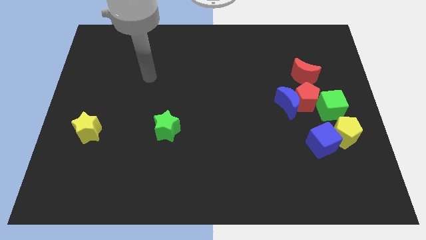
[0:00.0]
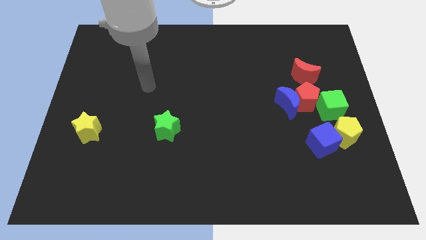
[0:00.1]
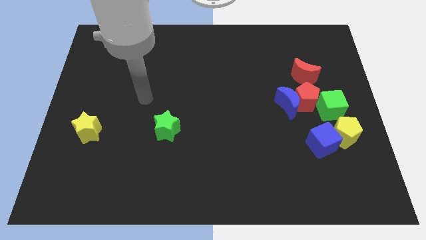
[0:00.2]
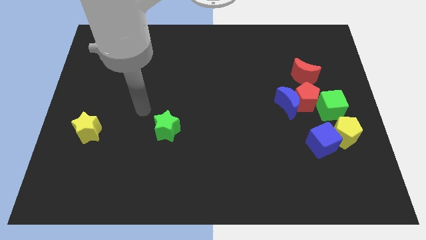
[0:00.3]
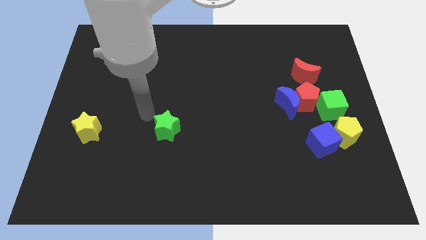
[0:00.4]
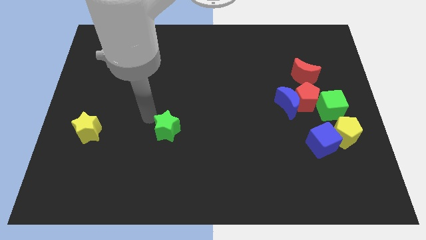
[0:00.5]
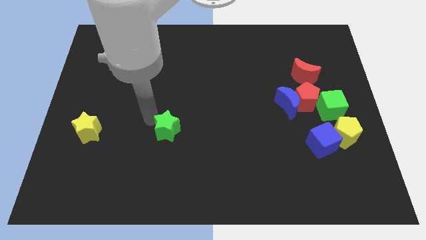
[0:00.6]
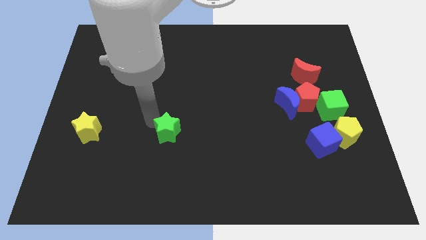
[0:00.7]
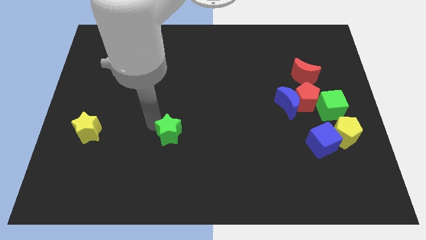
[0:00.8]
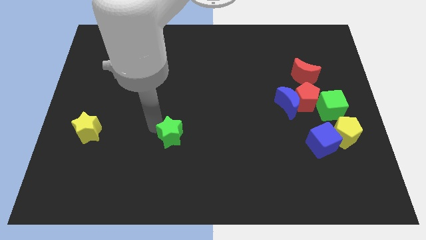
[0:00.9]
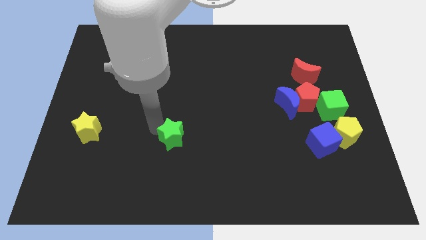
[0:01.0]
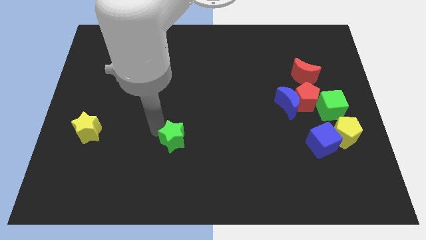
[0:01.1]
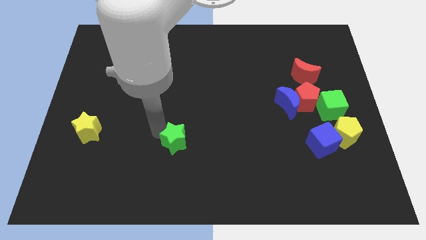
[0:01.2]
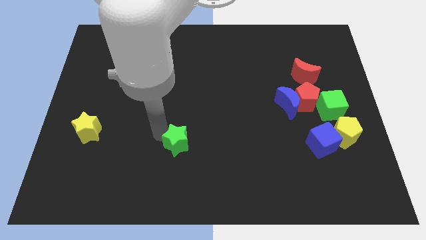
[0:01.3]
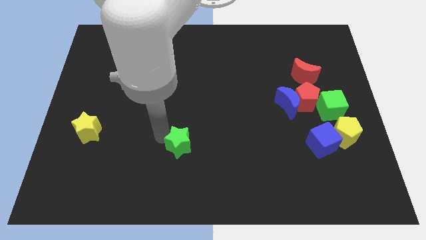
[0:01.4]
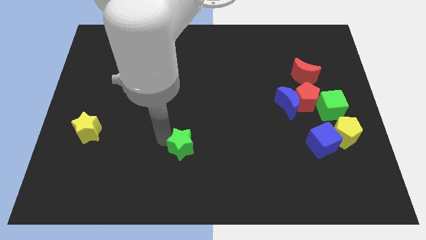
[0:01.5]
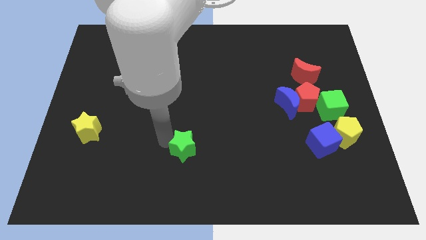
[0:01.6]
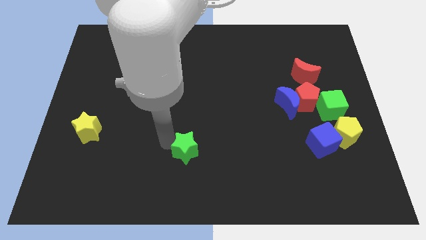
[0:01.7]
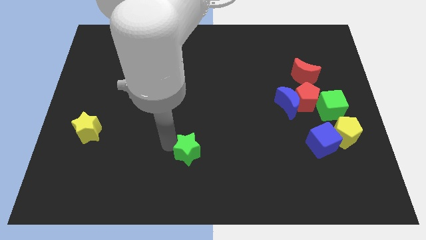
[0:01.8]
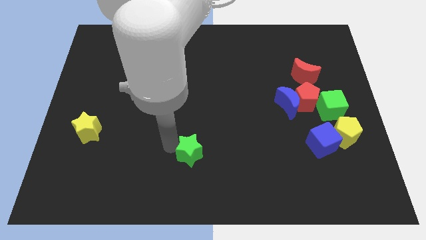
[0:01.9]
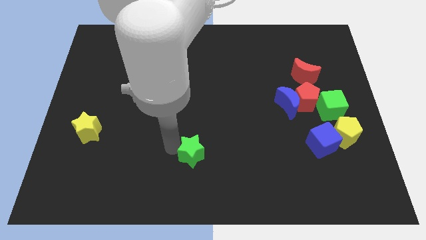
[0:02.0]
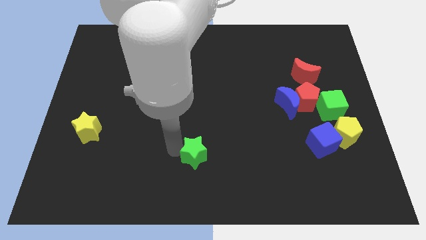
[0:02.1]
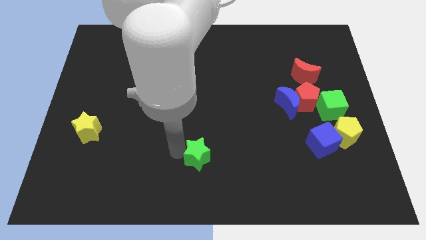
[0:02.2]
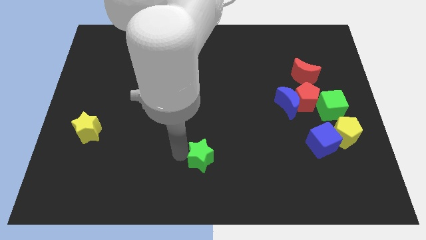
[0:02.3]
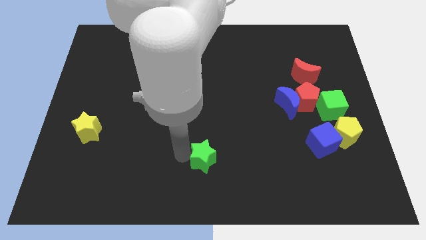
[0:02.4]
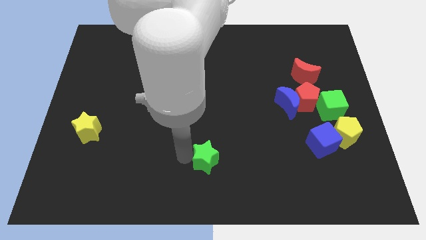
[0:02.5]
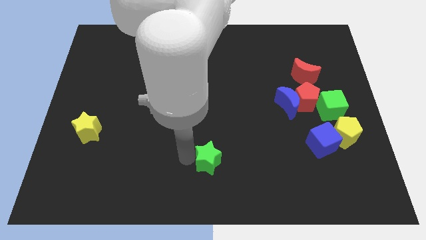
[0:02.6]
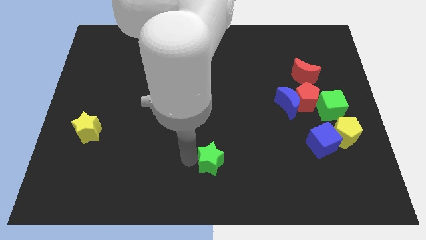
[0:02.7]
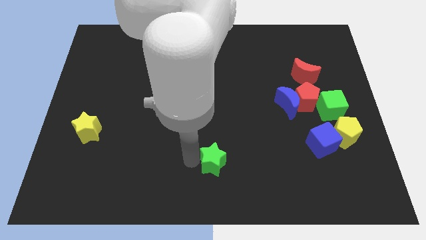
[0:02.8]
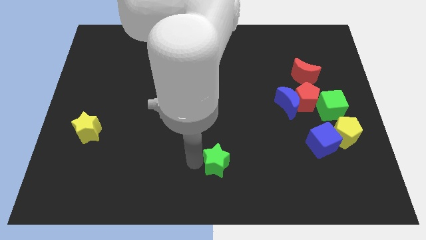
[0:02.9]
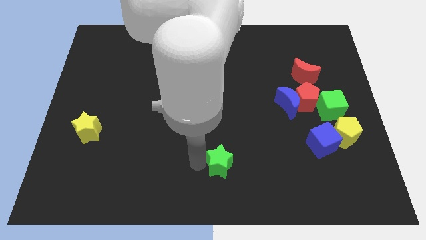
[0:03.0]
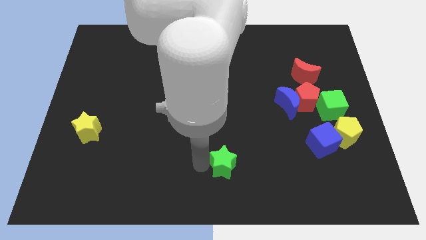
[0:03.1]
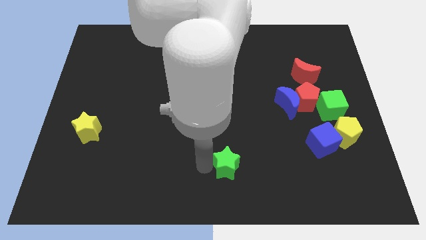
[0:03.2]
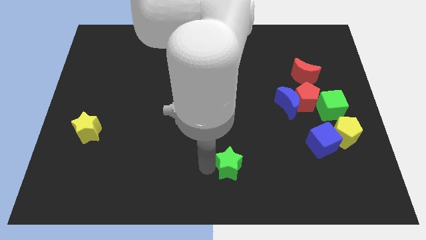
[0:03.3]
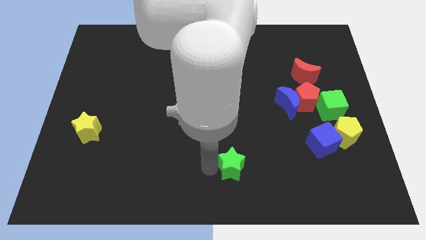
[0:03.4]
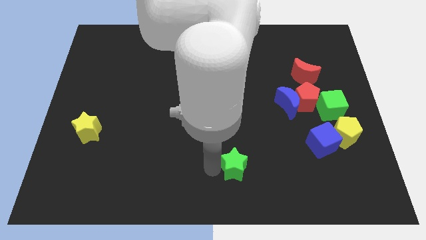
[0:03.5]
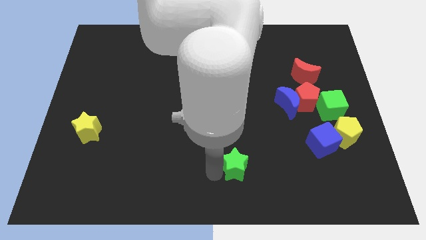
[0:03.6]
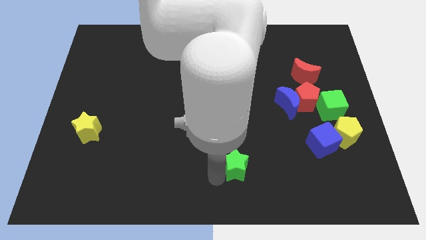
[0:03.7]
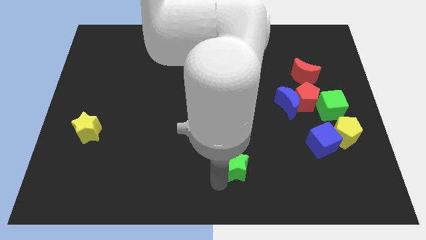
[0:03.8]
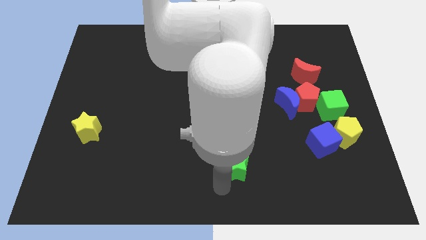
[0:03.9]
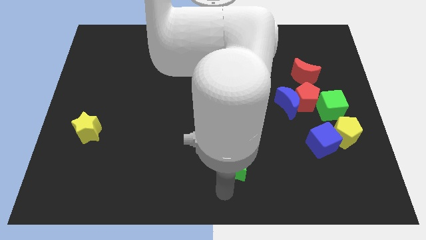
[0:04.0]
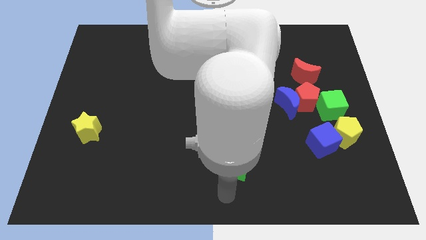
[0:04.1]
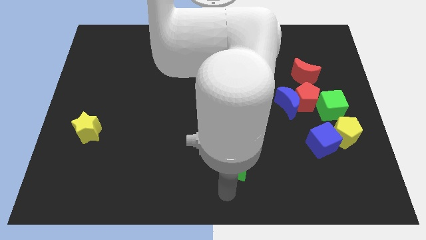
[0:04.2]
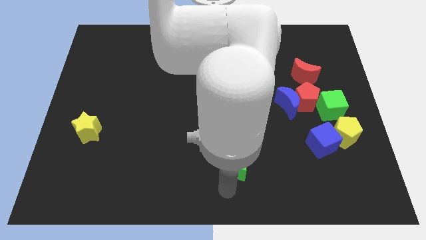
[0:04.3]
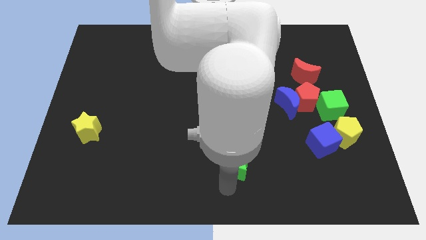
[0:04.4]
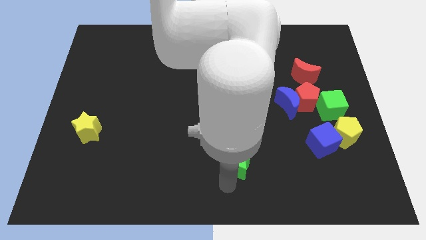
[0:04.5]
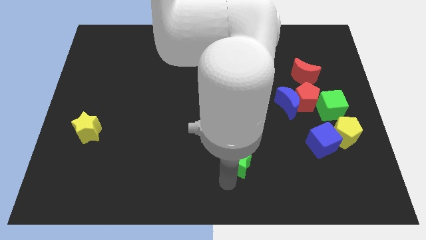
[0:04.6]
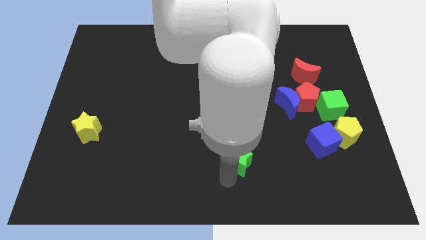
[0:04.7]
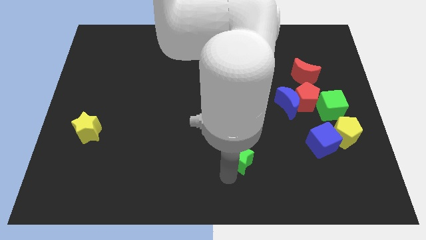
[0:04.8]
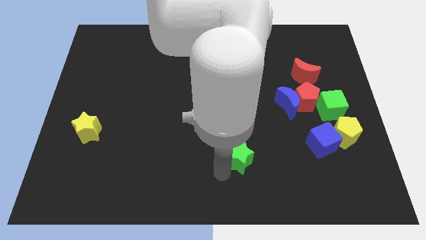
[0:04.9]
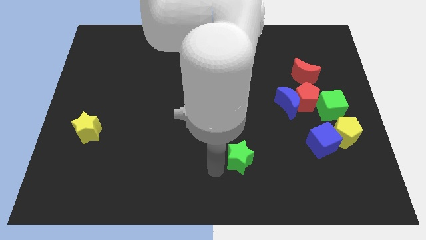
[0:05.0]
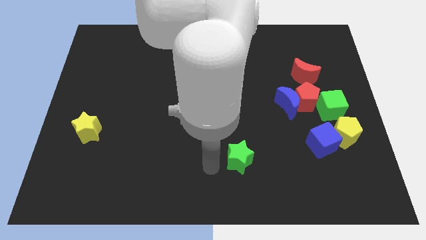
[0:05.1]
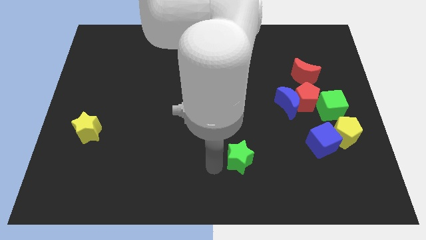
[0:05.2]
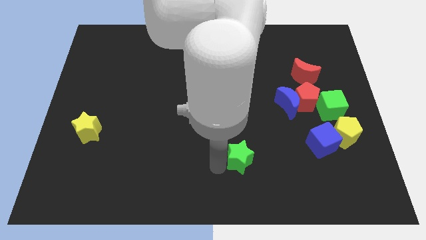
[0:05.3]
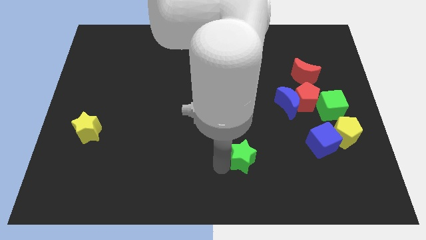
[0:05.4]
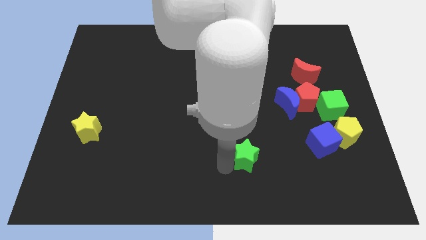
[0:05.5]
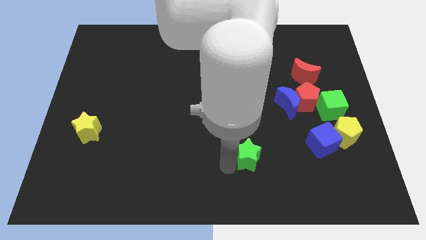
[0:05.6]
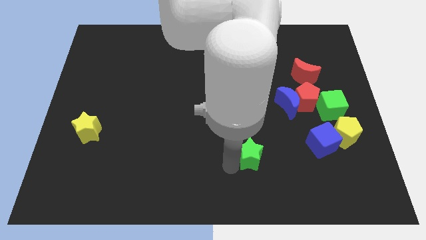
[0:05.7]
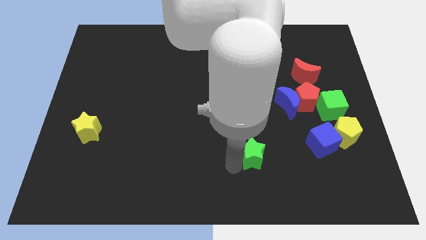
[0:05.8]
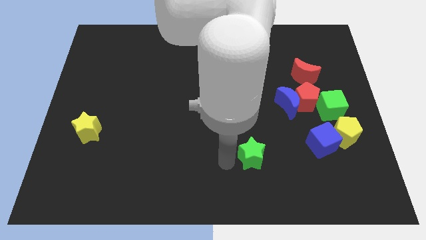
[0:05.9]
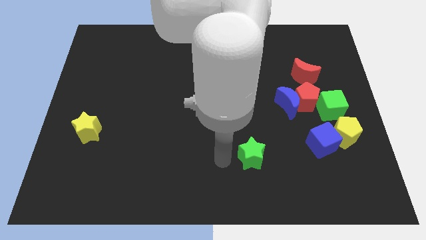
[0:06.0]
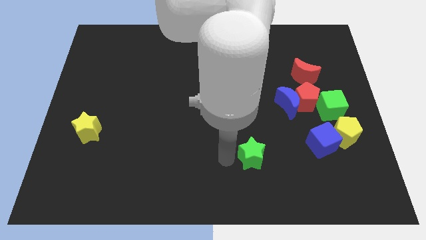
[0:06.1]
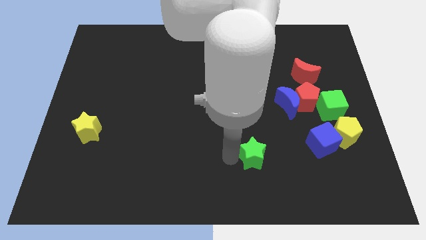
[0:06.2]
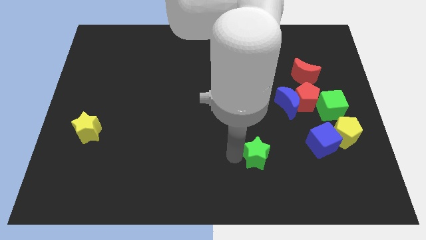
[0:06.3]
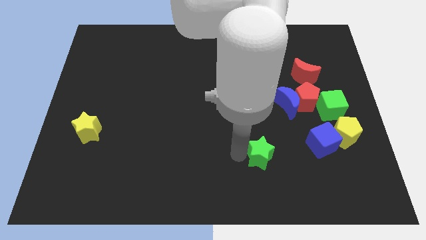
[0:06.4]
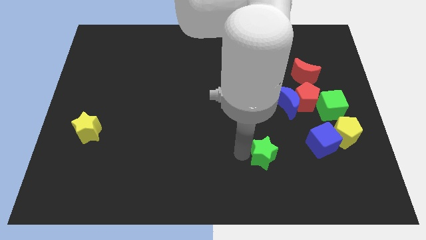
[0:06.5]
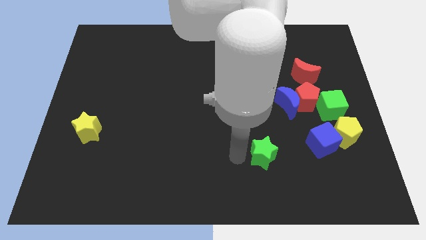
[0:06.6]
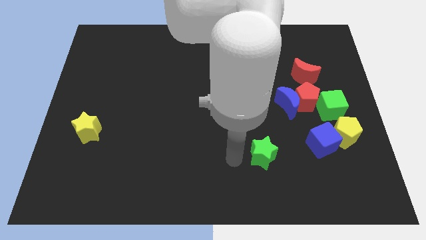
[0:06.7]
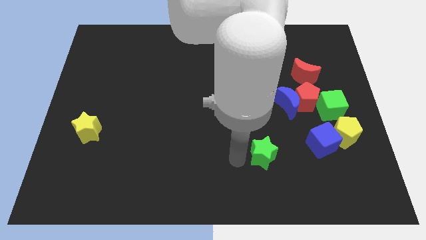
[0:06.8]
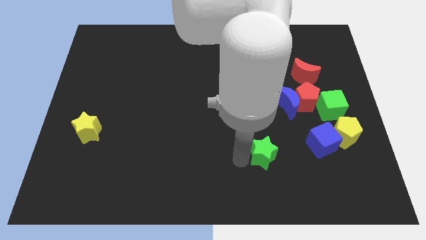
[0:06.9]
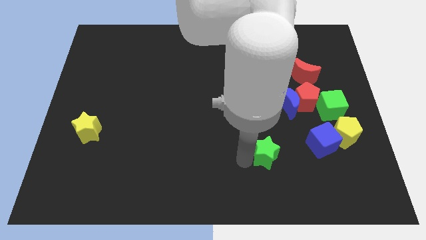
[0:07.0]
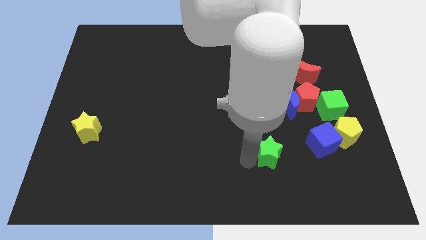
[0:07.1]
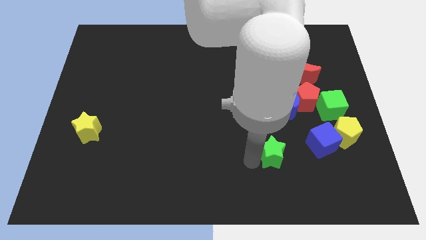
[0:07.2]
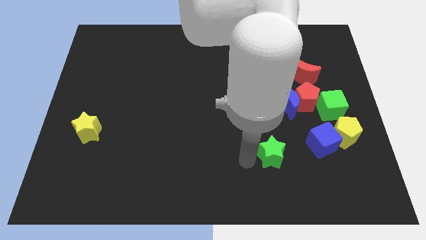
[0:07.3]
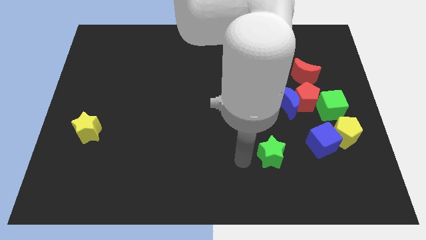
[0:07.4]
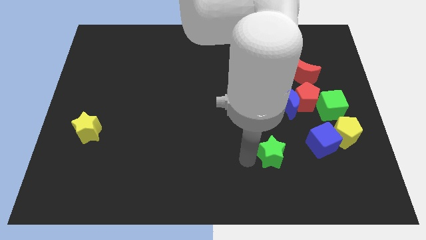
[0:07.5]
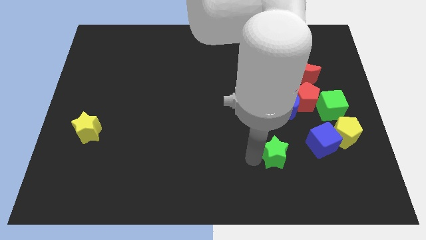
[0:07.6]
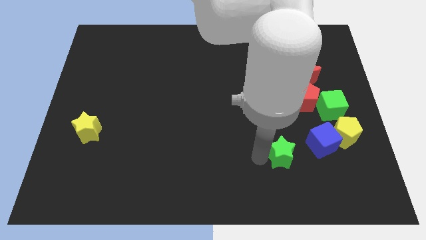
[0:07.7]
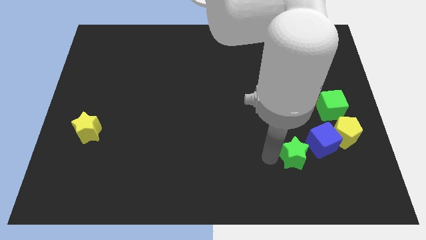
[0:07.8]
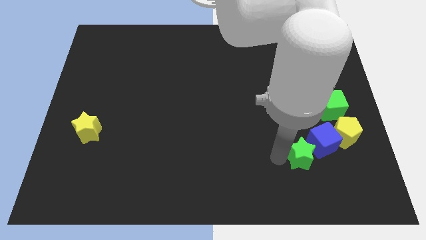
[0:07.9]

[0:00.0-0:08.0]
move the green star next to the blue cube
